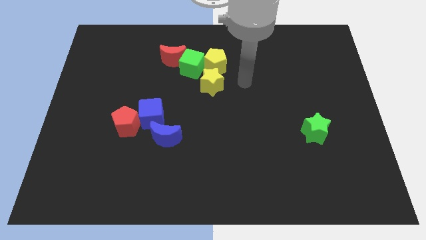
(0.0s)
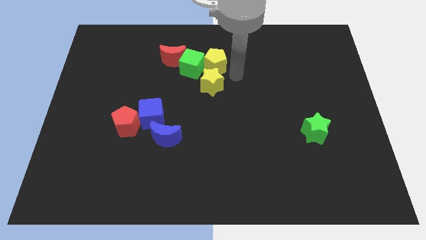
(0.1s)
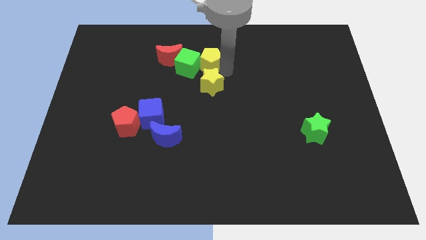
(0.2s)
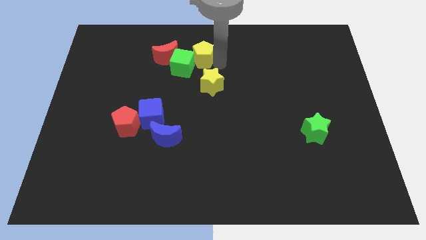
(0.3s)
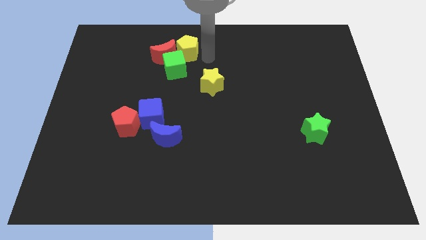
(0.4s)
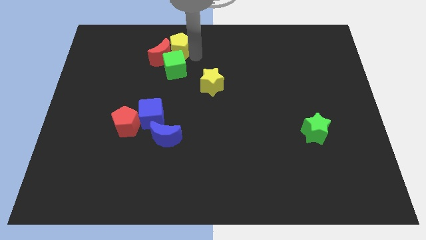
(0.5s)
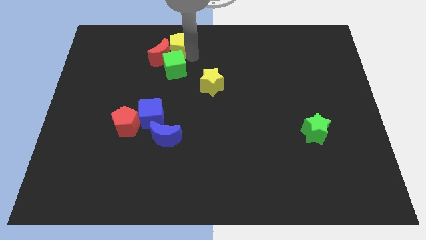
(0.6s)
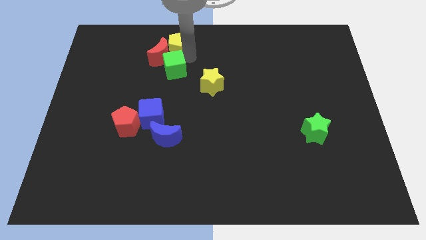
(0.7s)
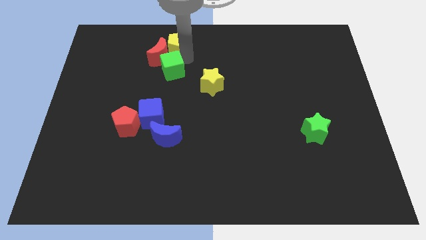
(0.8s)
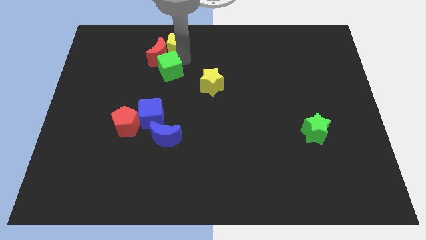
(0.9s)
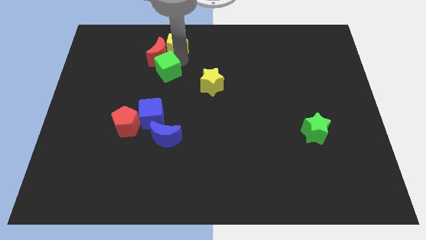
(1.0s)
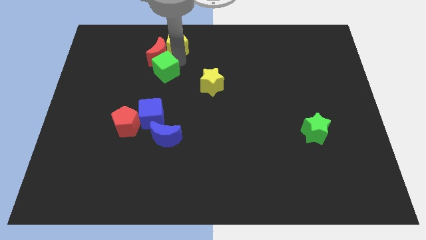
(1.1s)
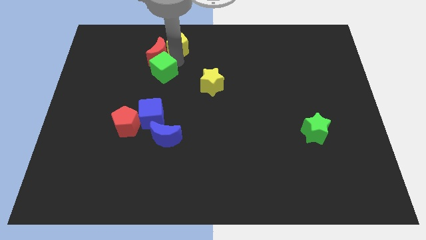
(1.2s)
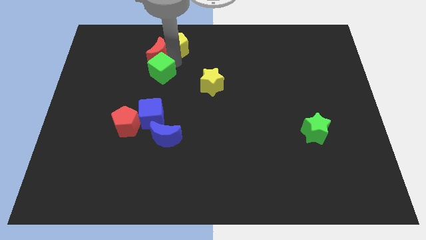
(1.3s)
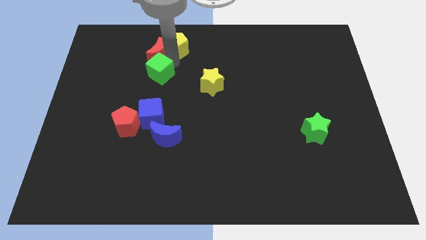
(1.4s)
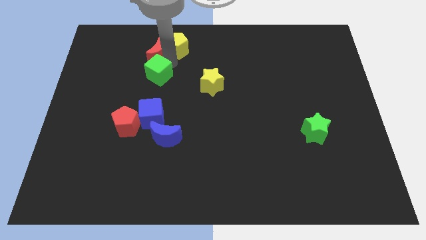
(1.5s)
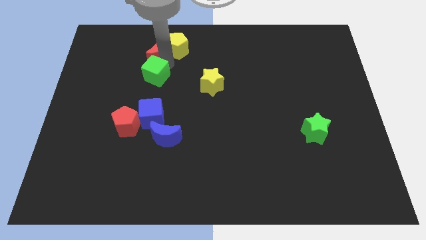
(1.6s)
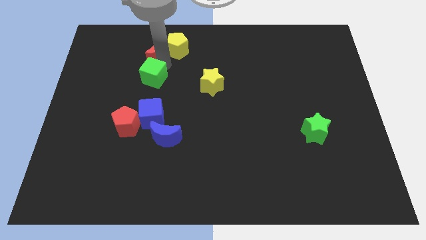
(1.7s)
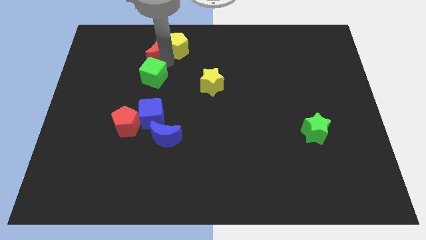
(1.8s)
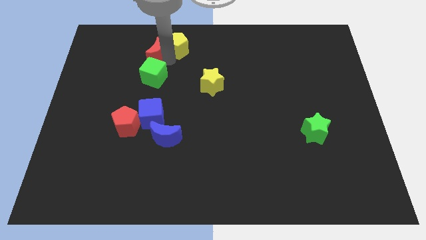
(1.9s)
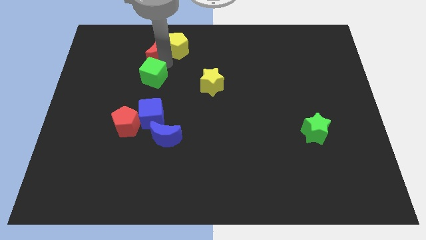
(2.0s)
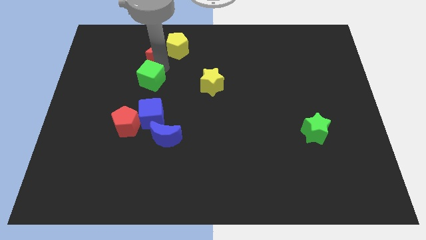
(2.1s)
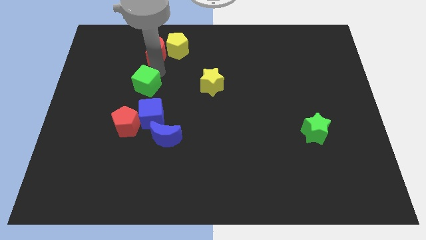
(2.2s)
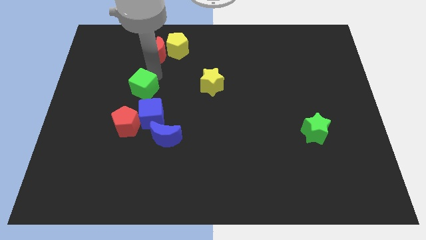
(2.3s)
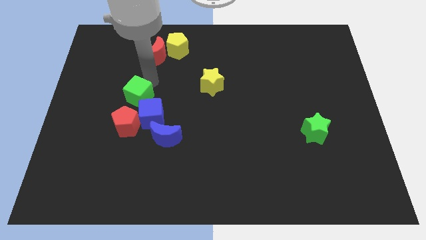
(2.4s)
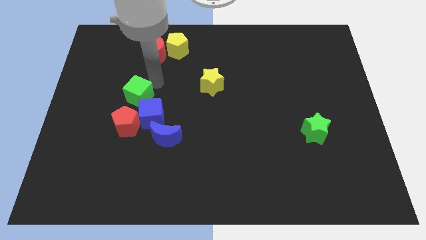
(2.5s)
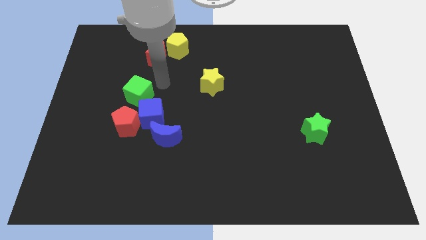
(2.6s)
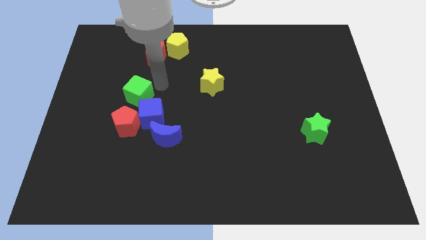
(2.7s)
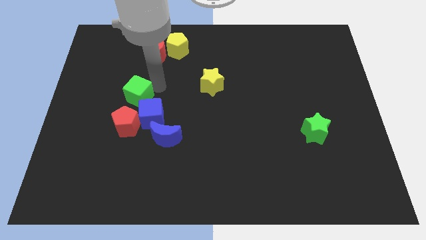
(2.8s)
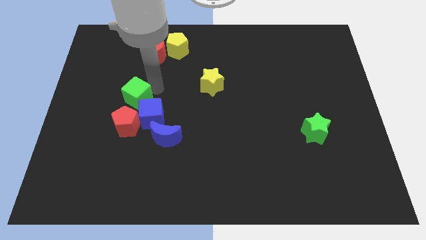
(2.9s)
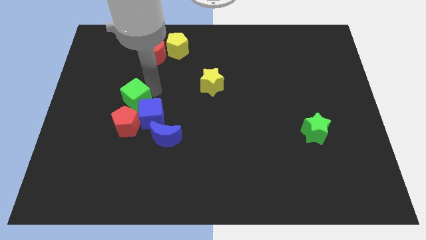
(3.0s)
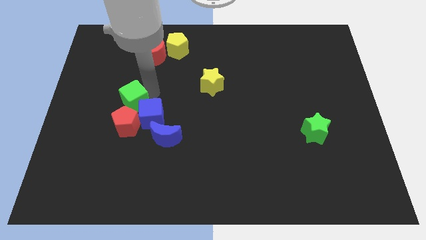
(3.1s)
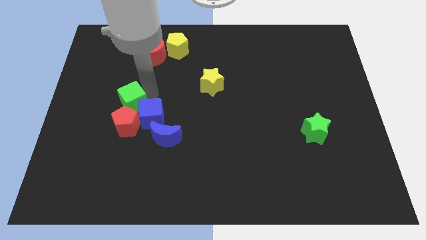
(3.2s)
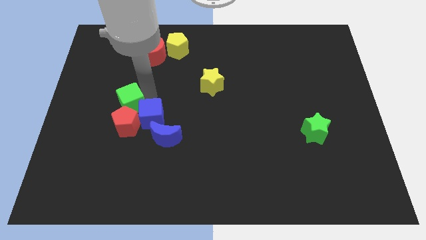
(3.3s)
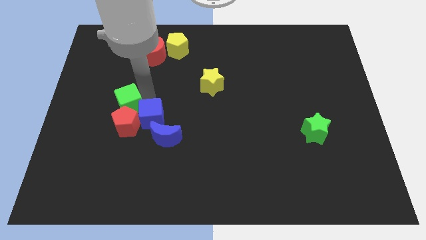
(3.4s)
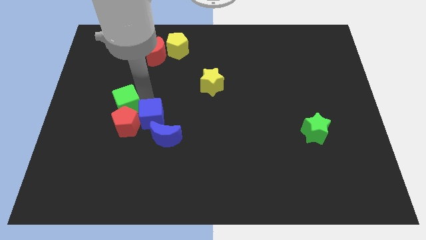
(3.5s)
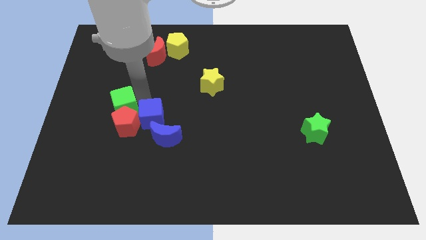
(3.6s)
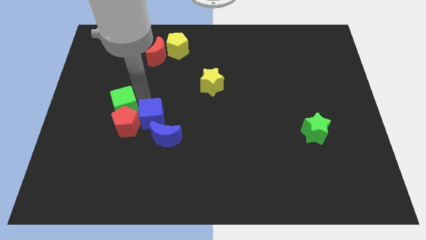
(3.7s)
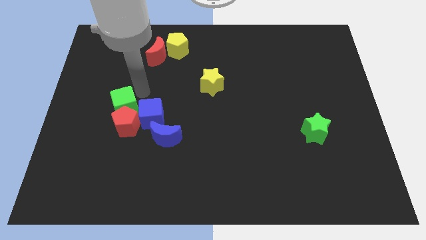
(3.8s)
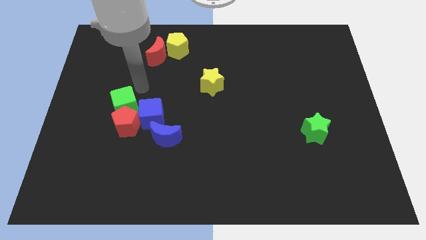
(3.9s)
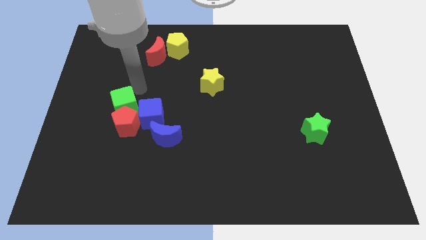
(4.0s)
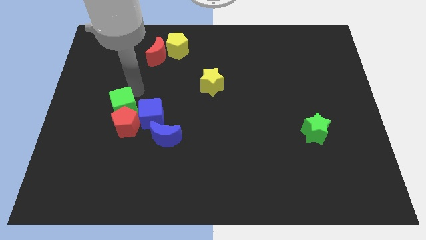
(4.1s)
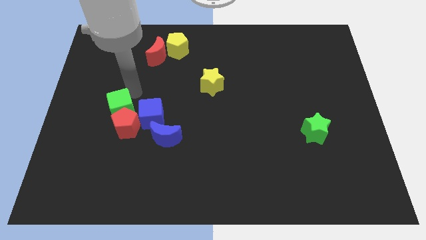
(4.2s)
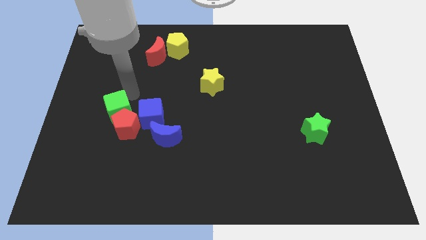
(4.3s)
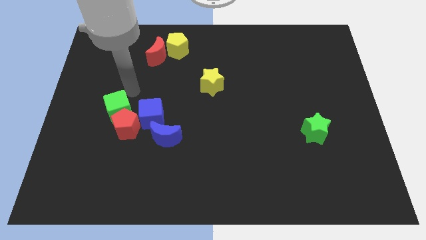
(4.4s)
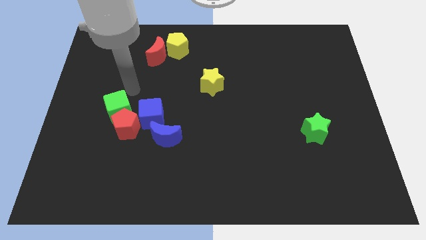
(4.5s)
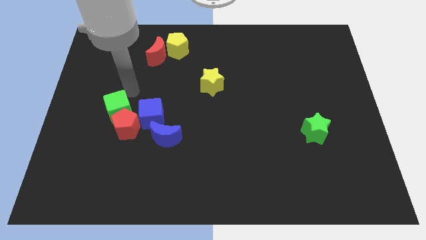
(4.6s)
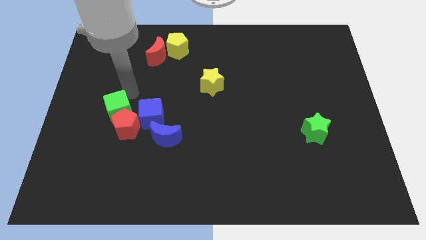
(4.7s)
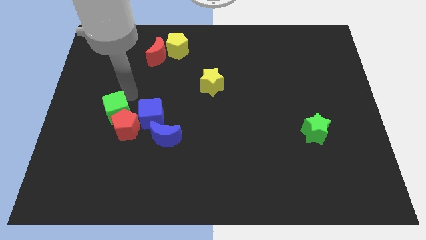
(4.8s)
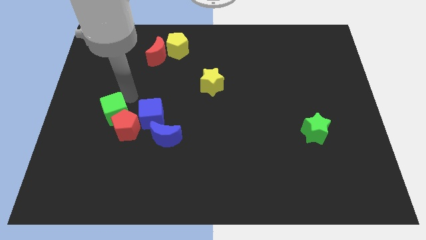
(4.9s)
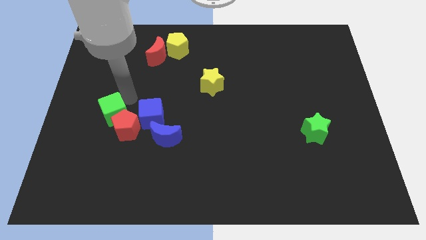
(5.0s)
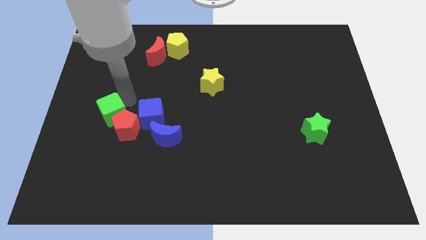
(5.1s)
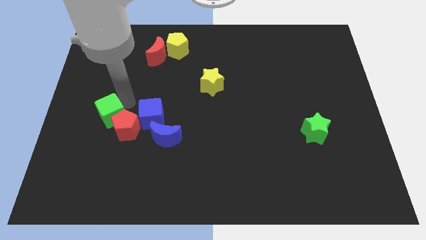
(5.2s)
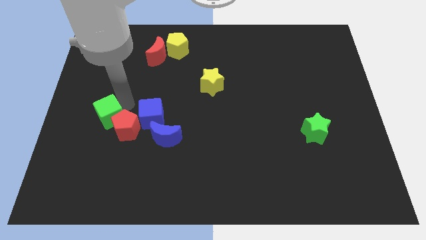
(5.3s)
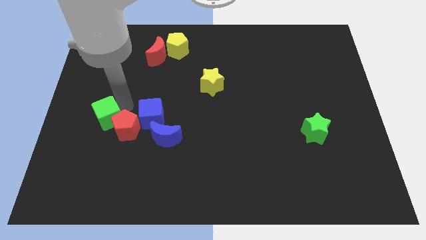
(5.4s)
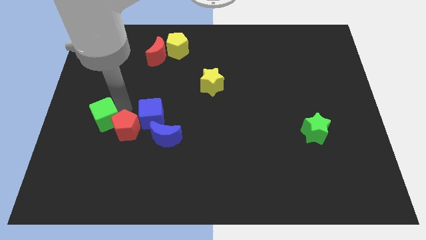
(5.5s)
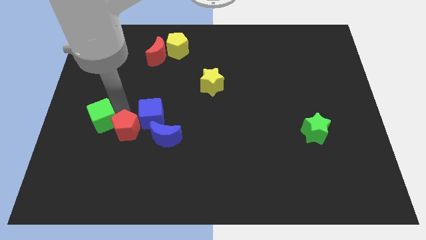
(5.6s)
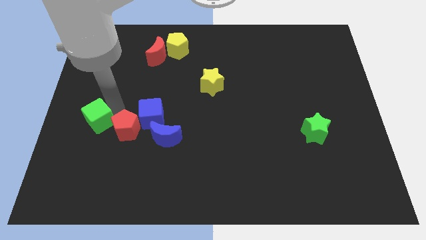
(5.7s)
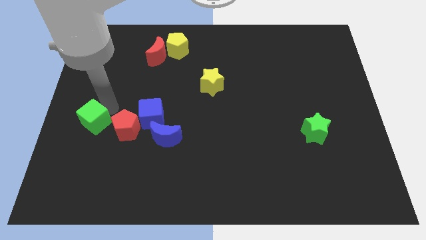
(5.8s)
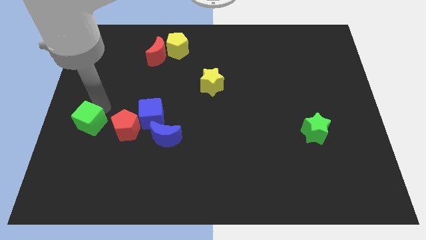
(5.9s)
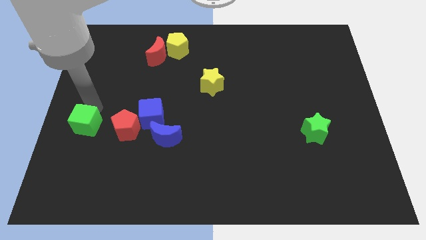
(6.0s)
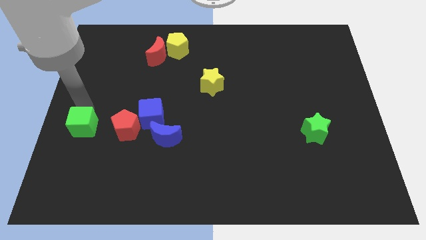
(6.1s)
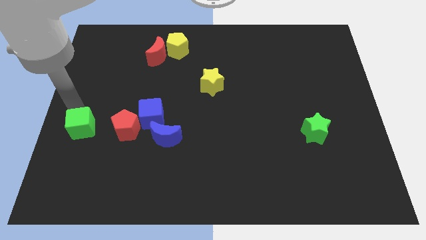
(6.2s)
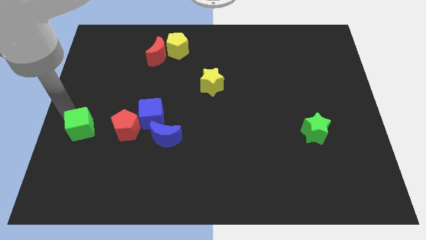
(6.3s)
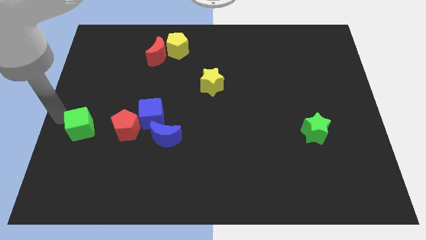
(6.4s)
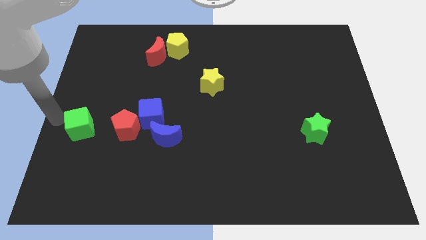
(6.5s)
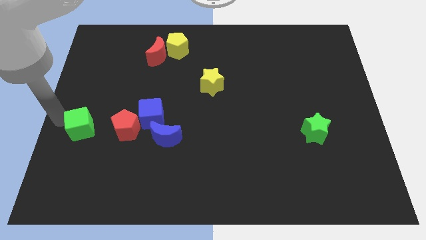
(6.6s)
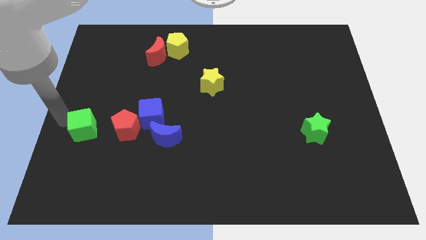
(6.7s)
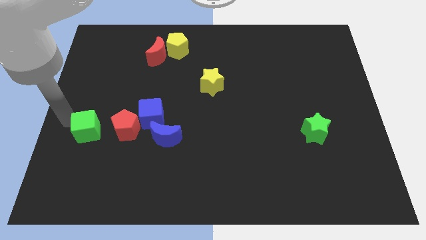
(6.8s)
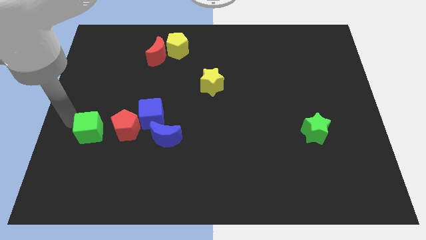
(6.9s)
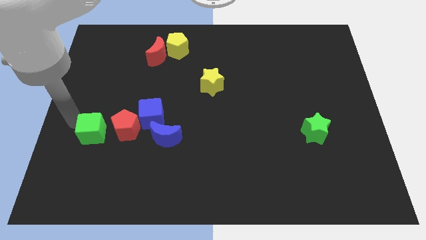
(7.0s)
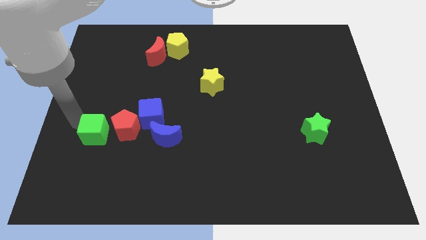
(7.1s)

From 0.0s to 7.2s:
move the green cube to the left of the blue moon
